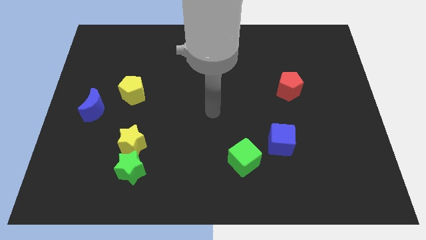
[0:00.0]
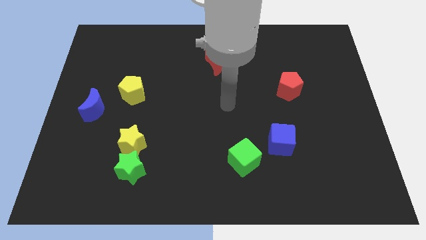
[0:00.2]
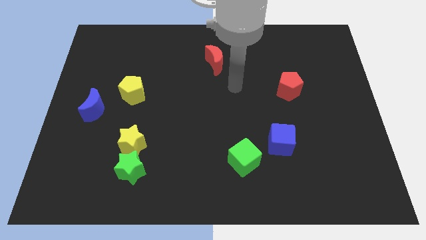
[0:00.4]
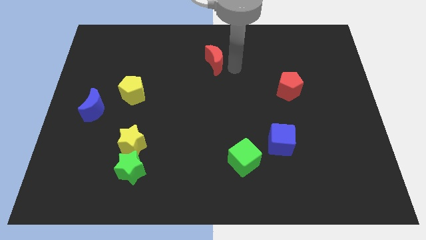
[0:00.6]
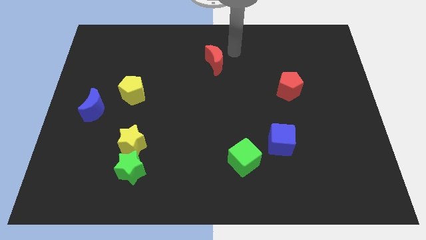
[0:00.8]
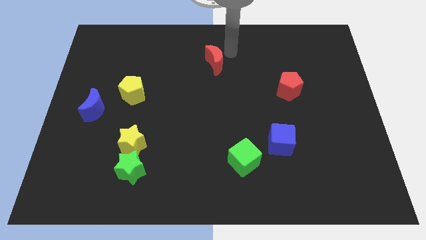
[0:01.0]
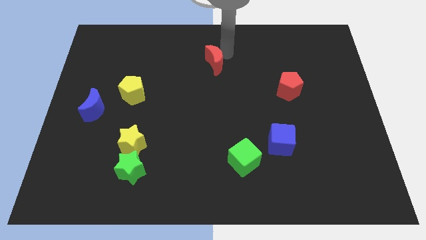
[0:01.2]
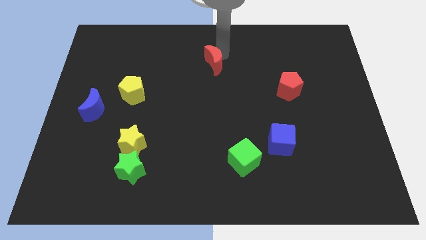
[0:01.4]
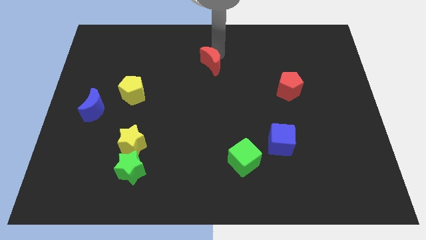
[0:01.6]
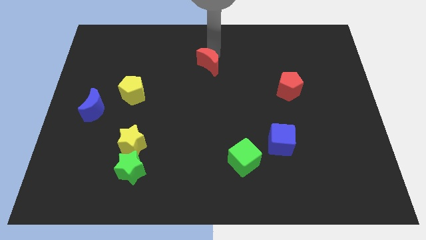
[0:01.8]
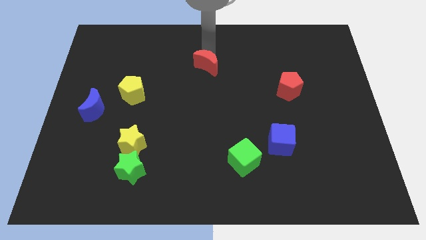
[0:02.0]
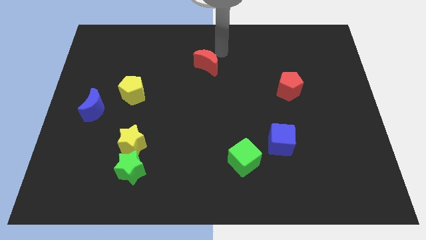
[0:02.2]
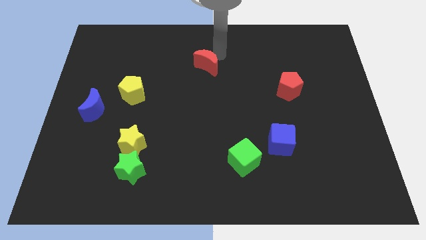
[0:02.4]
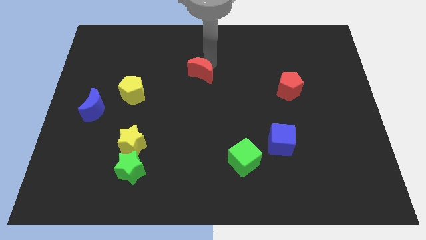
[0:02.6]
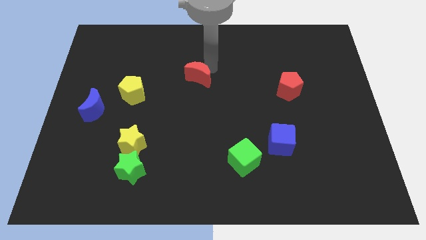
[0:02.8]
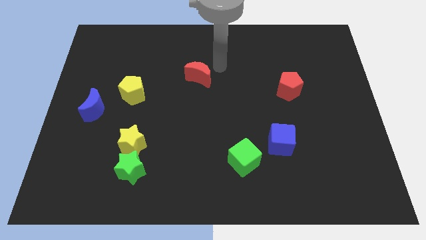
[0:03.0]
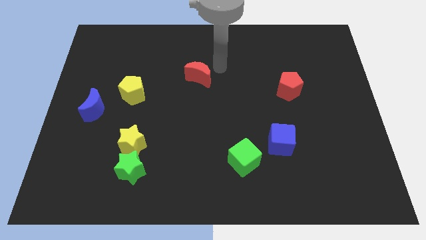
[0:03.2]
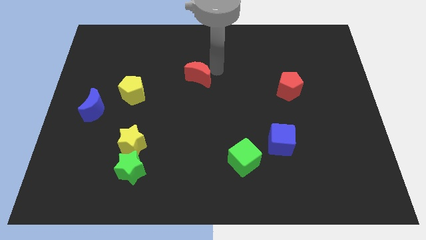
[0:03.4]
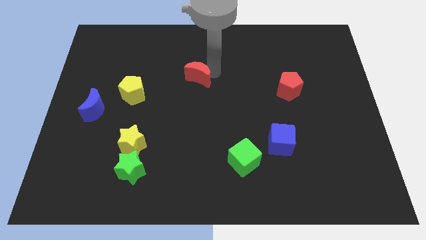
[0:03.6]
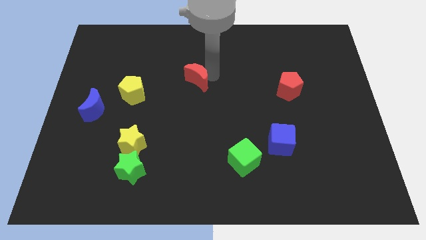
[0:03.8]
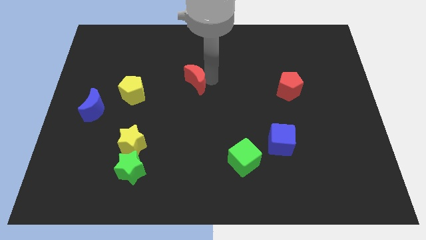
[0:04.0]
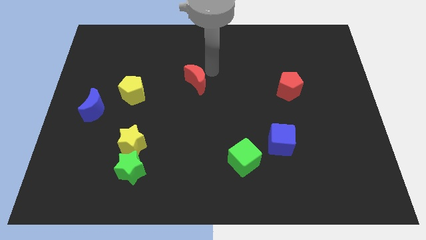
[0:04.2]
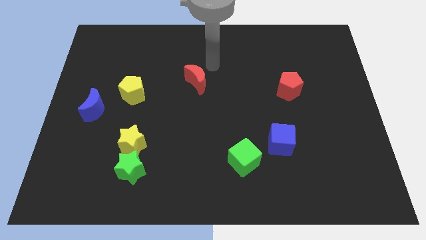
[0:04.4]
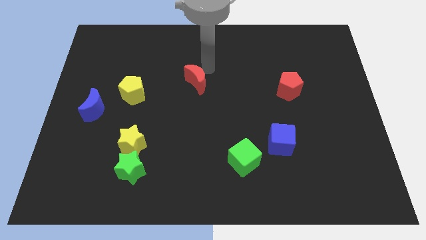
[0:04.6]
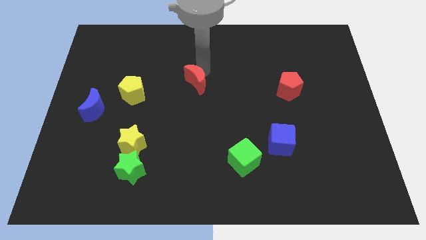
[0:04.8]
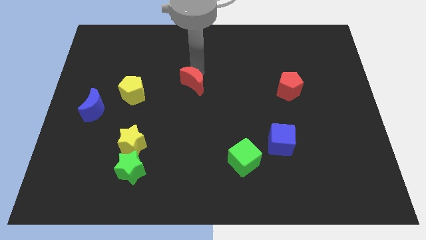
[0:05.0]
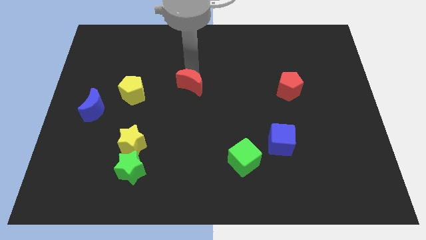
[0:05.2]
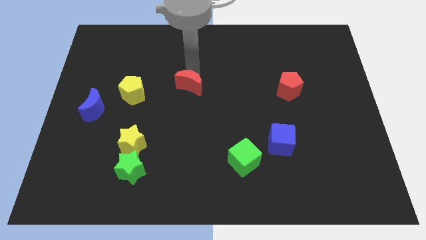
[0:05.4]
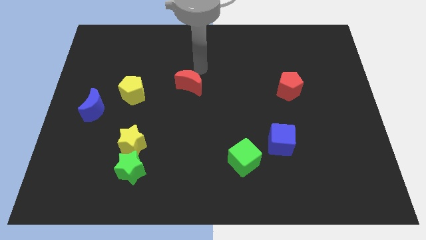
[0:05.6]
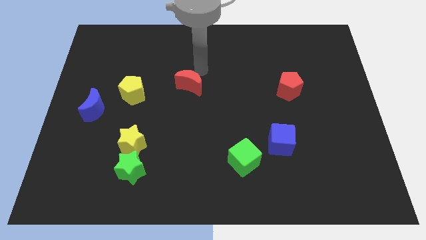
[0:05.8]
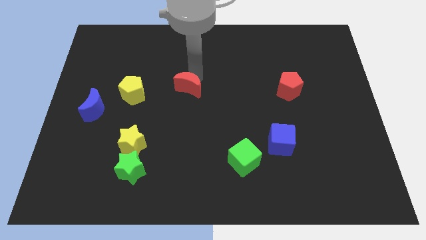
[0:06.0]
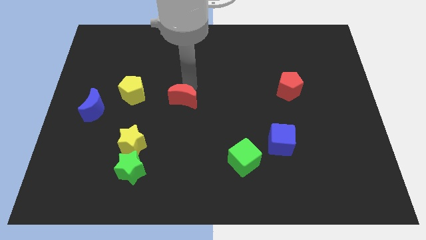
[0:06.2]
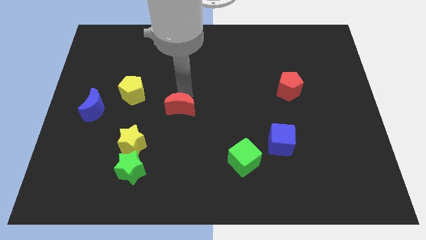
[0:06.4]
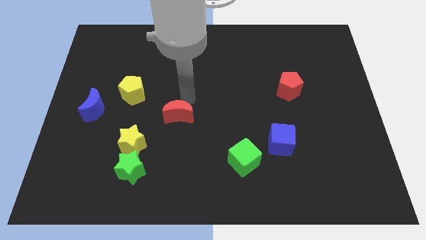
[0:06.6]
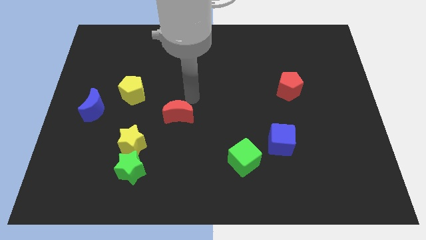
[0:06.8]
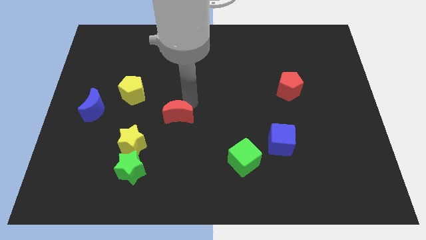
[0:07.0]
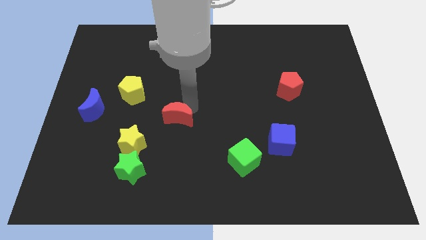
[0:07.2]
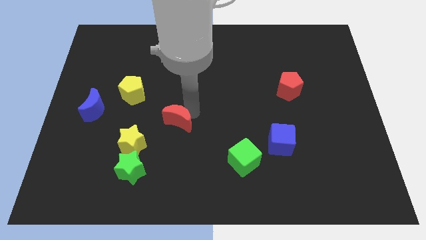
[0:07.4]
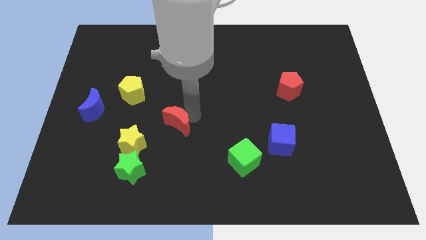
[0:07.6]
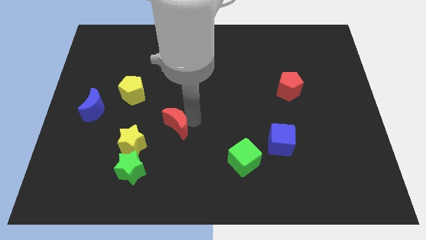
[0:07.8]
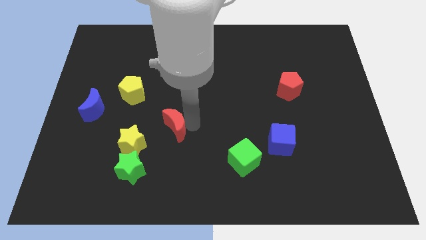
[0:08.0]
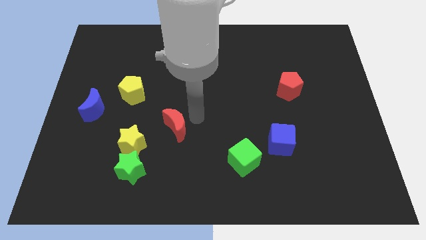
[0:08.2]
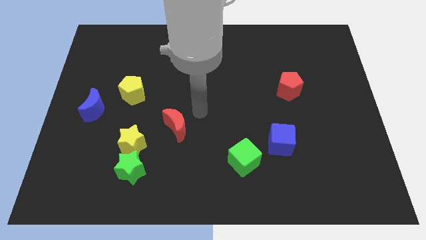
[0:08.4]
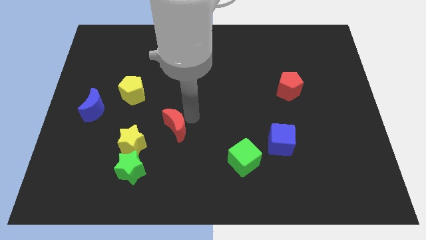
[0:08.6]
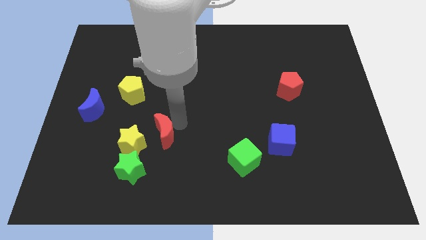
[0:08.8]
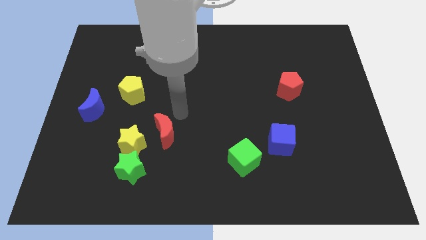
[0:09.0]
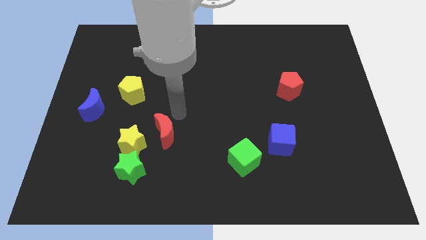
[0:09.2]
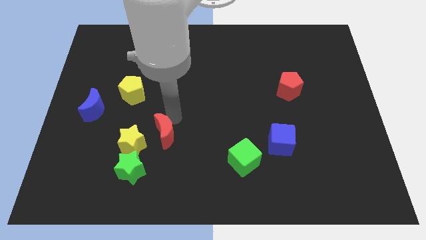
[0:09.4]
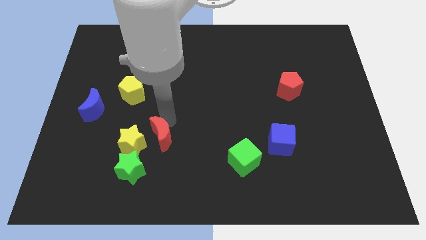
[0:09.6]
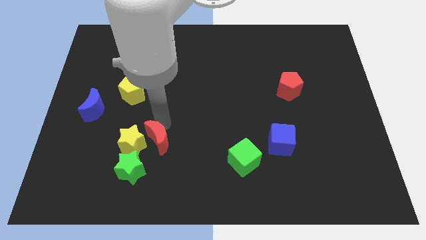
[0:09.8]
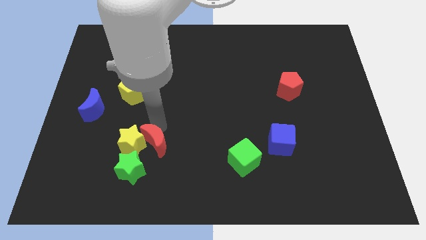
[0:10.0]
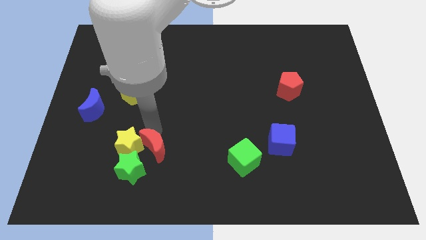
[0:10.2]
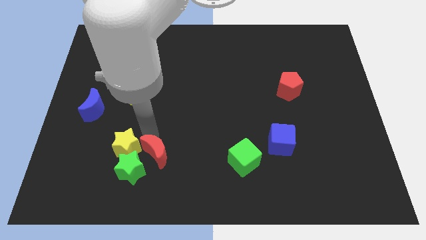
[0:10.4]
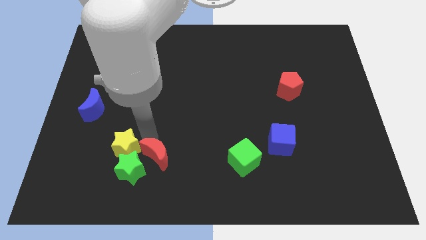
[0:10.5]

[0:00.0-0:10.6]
slide the red moon to the green star

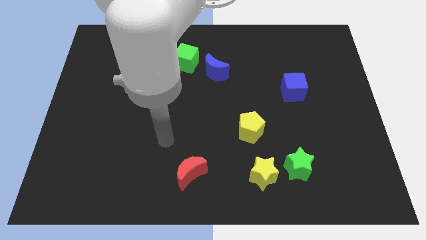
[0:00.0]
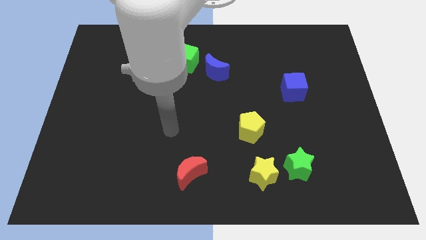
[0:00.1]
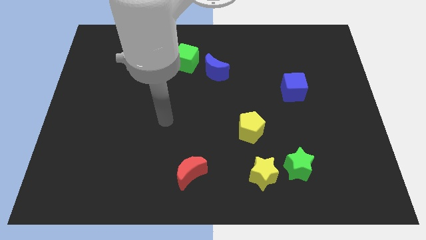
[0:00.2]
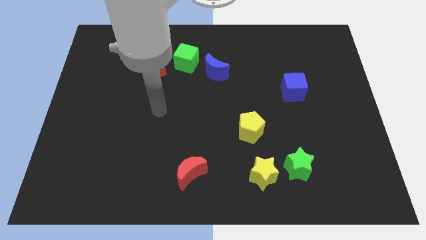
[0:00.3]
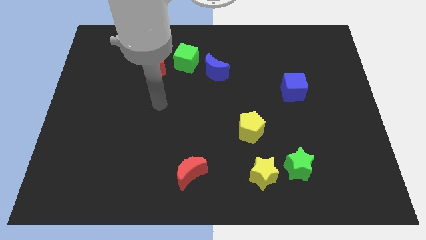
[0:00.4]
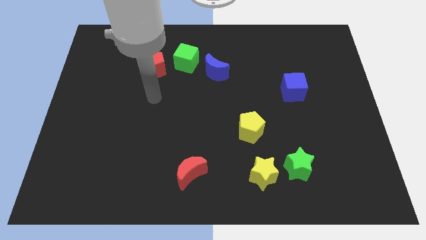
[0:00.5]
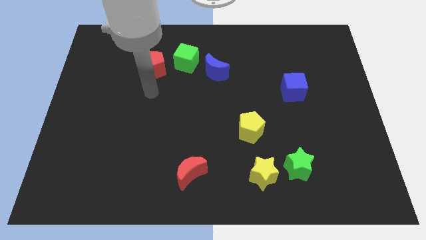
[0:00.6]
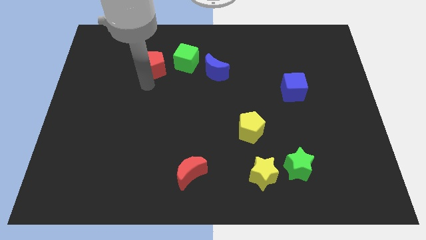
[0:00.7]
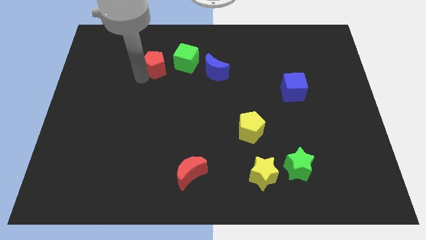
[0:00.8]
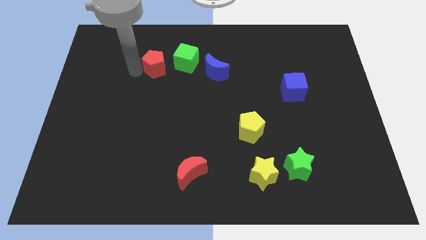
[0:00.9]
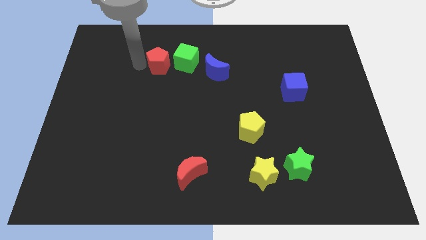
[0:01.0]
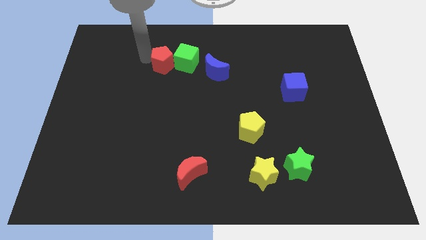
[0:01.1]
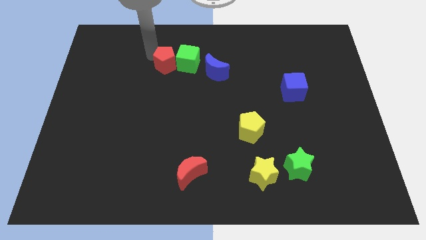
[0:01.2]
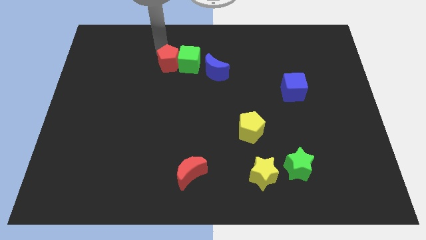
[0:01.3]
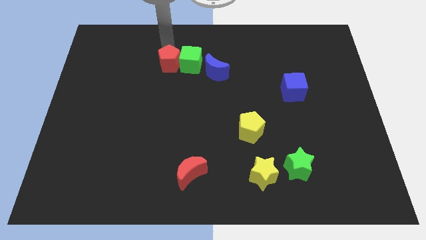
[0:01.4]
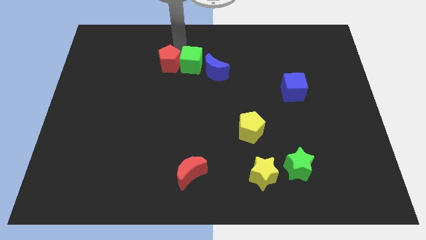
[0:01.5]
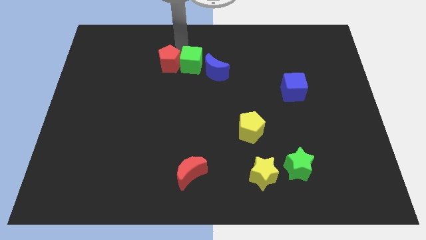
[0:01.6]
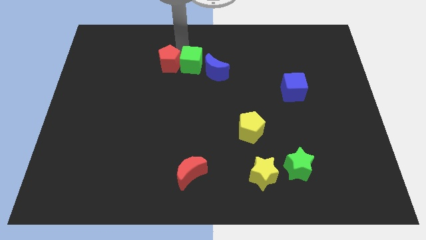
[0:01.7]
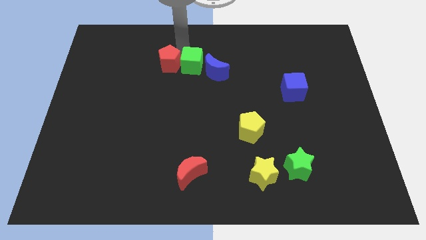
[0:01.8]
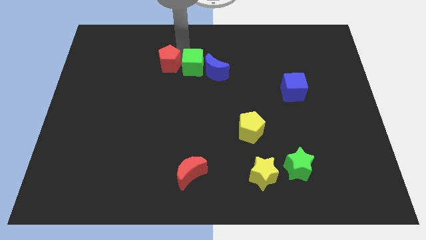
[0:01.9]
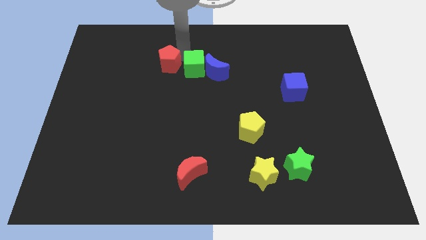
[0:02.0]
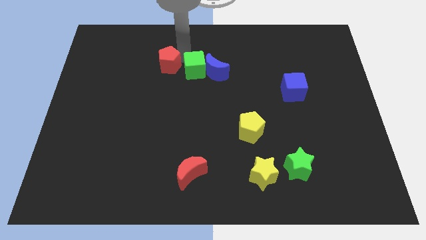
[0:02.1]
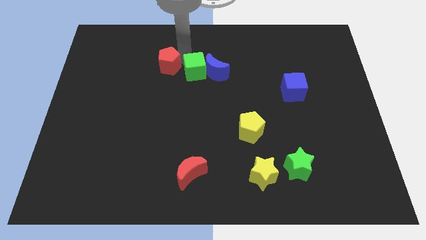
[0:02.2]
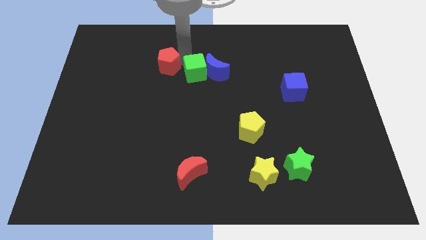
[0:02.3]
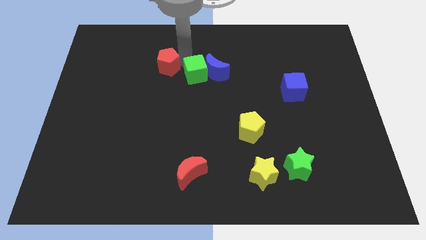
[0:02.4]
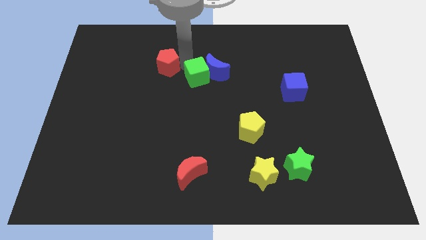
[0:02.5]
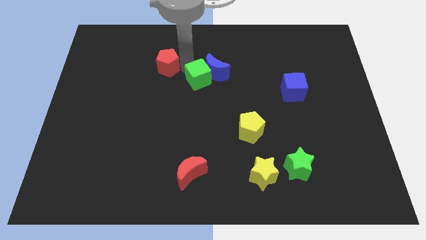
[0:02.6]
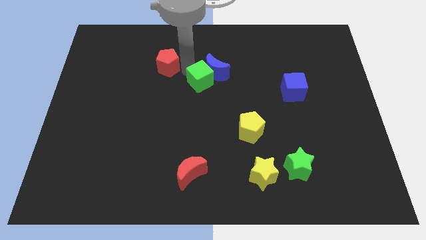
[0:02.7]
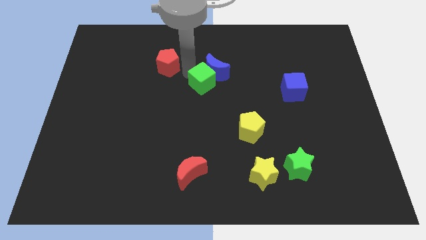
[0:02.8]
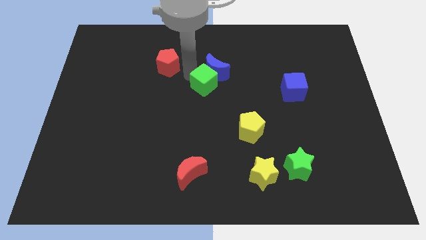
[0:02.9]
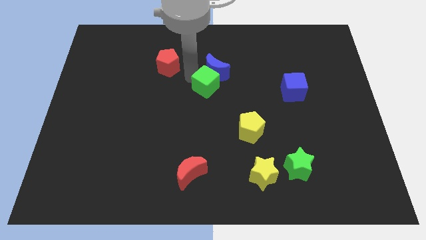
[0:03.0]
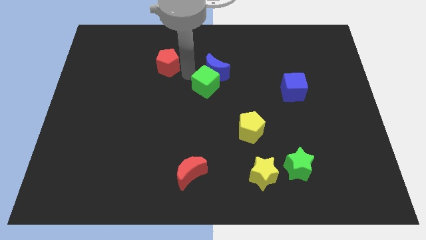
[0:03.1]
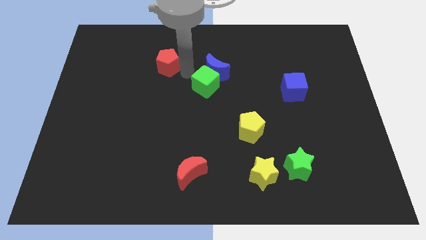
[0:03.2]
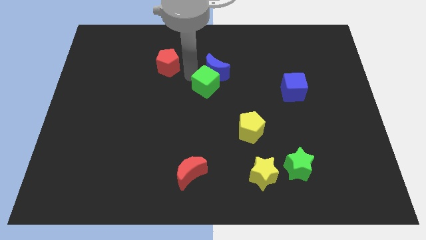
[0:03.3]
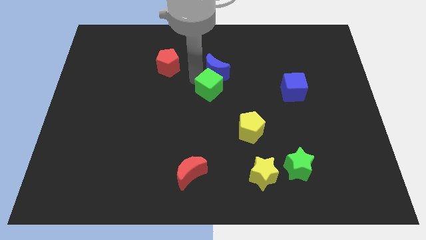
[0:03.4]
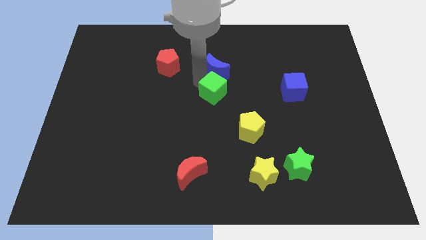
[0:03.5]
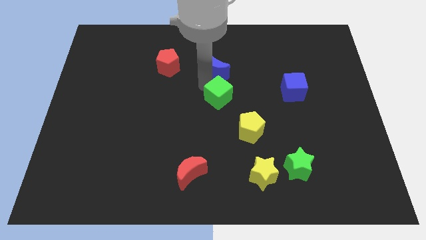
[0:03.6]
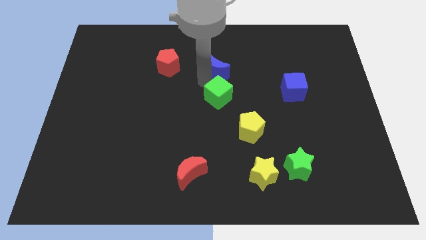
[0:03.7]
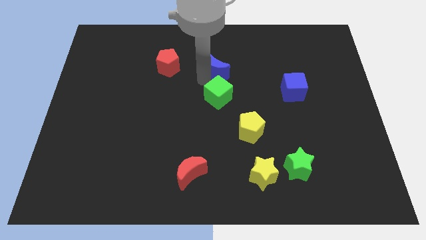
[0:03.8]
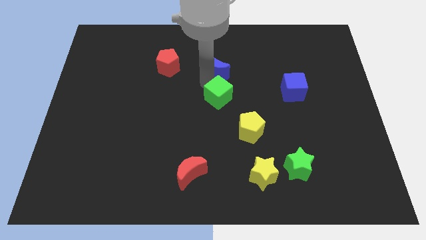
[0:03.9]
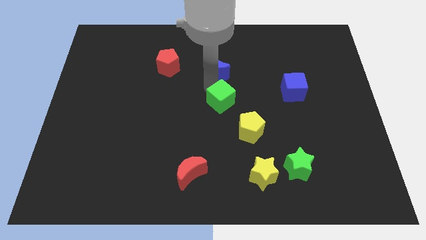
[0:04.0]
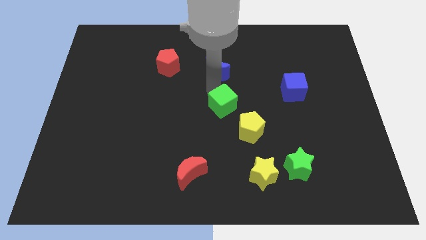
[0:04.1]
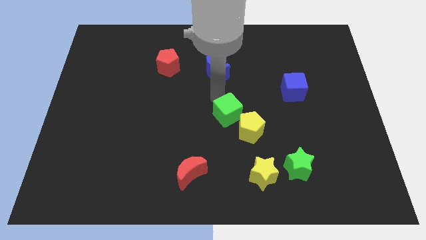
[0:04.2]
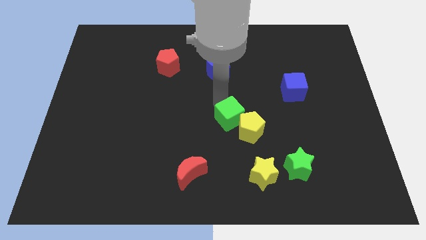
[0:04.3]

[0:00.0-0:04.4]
put the green cube close to the yellow pentagon
